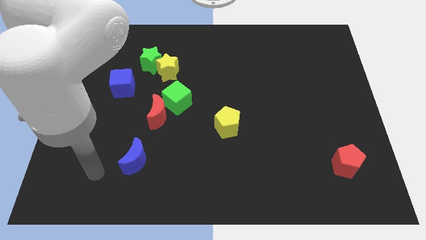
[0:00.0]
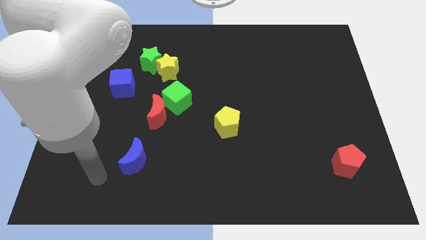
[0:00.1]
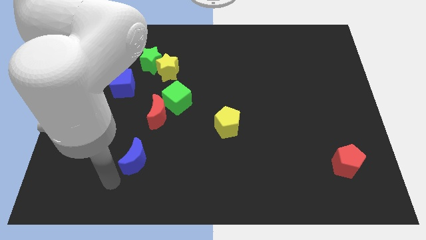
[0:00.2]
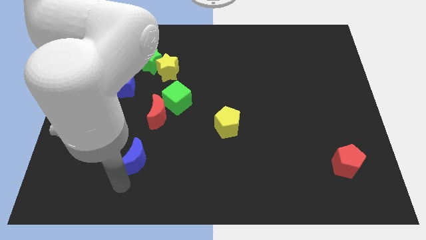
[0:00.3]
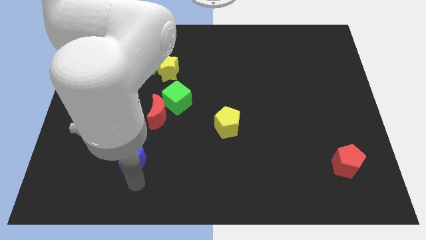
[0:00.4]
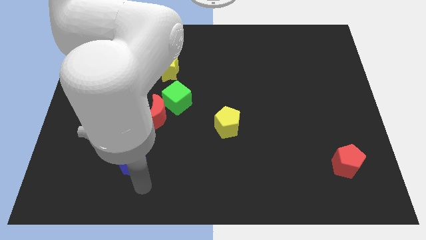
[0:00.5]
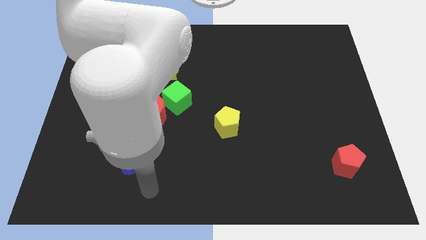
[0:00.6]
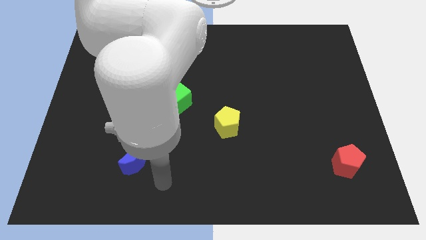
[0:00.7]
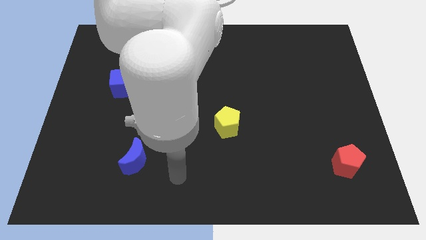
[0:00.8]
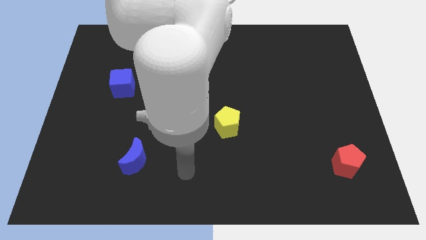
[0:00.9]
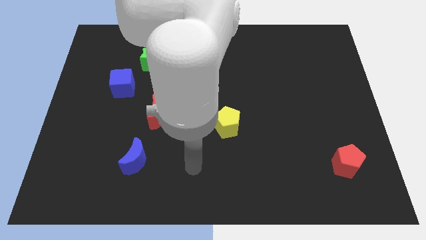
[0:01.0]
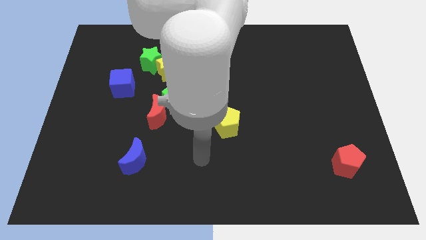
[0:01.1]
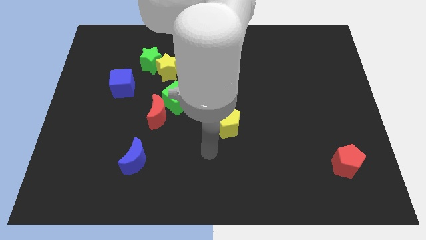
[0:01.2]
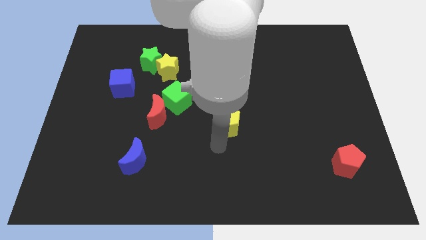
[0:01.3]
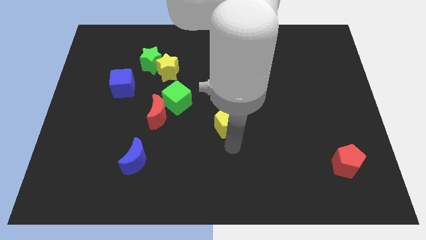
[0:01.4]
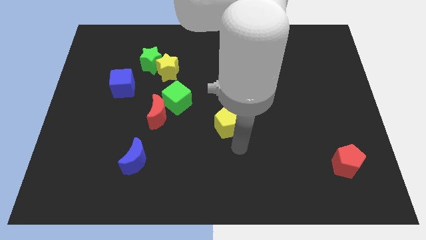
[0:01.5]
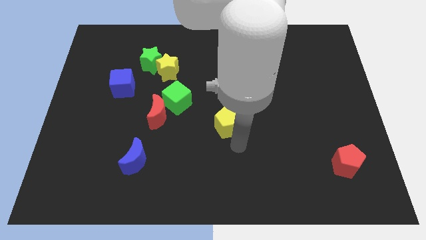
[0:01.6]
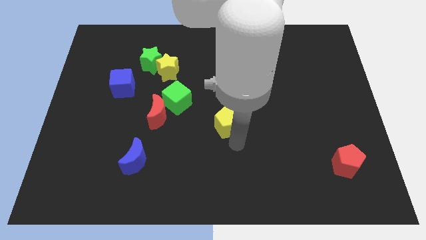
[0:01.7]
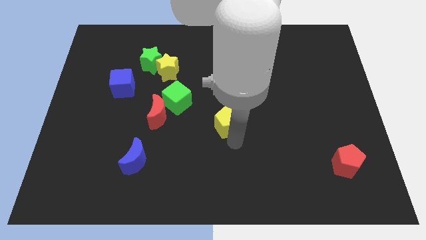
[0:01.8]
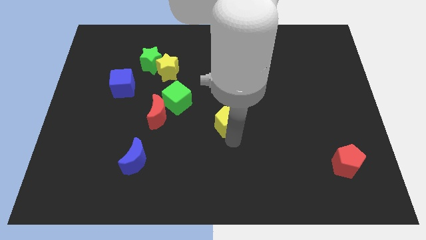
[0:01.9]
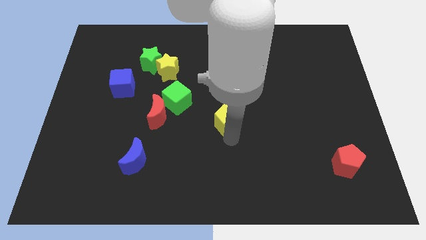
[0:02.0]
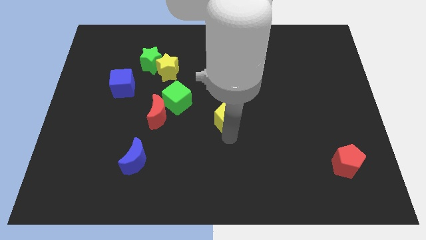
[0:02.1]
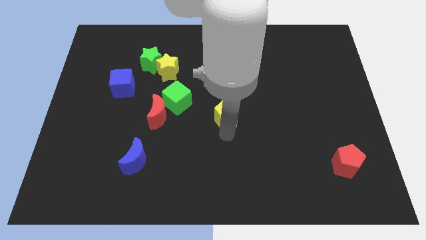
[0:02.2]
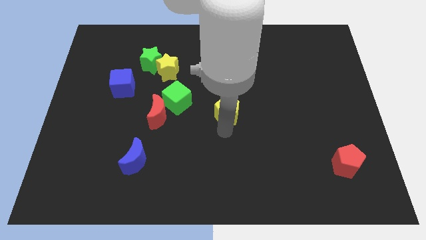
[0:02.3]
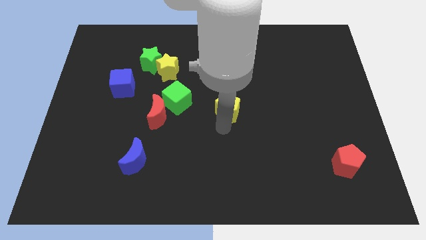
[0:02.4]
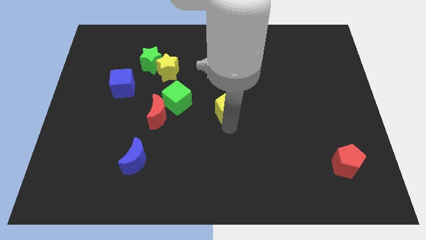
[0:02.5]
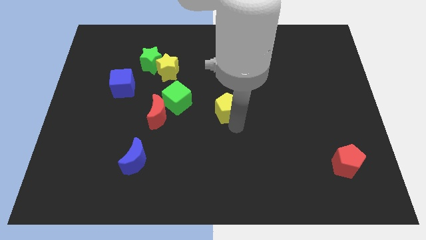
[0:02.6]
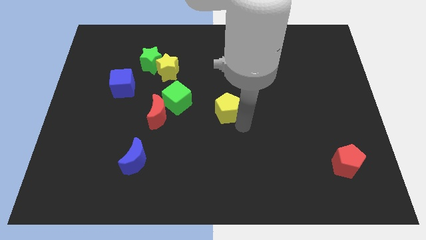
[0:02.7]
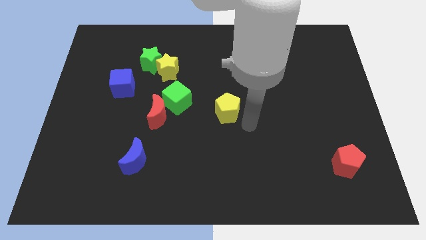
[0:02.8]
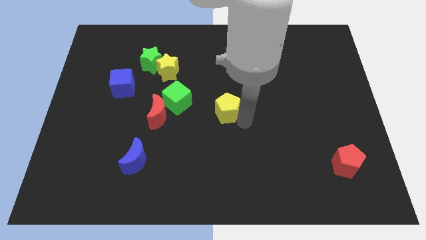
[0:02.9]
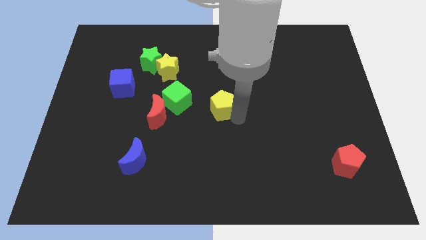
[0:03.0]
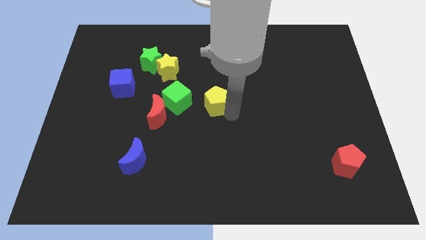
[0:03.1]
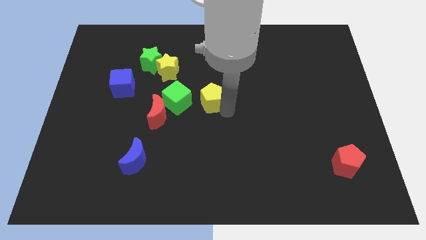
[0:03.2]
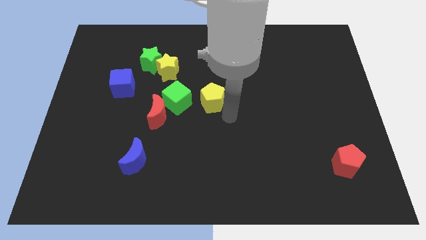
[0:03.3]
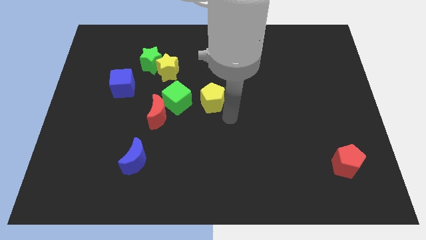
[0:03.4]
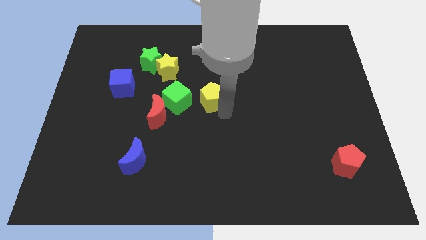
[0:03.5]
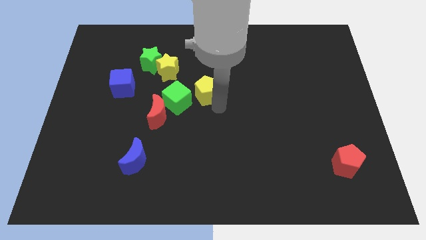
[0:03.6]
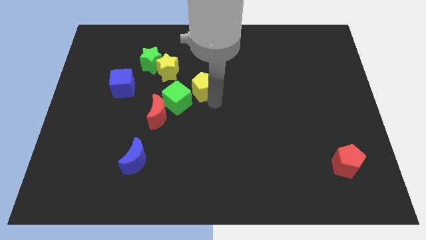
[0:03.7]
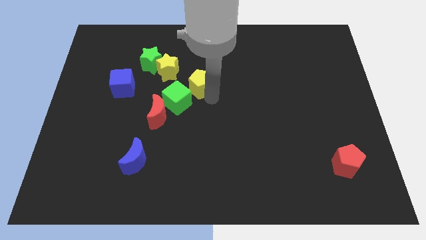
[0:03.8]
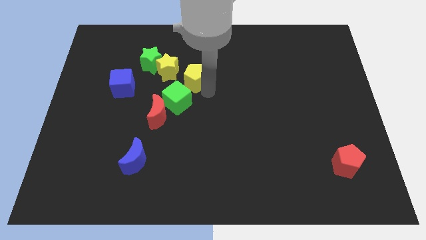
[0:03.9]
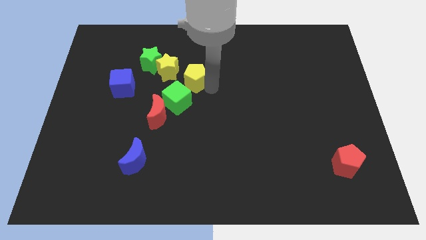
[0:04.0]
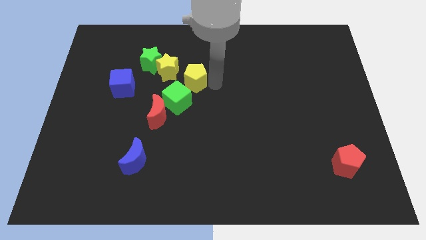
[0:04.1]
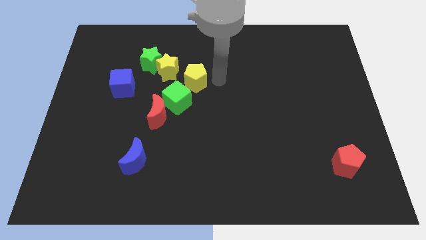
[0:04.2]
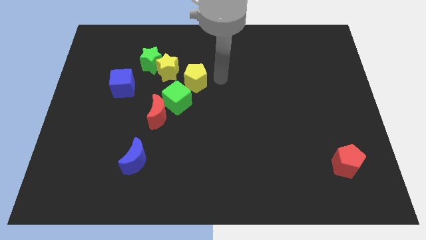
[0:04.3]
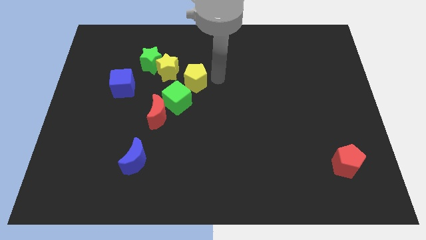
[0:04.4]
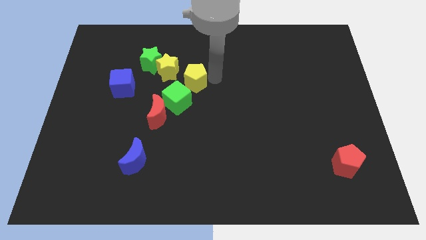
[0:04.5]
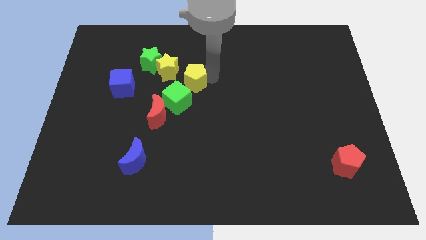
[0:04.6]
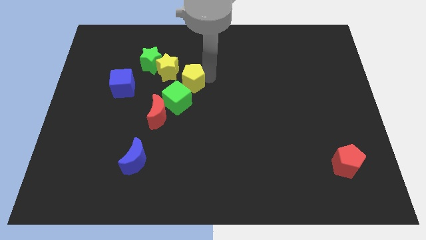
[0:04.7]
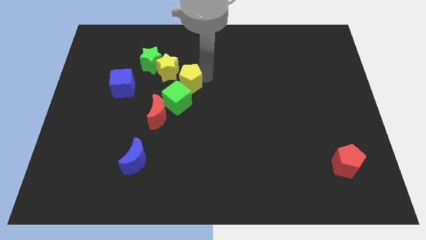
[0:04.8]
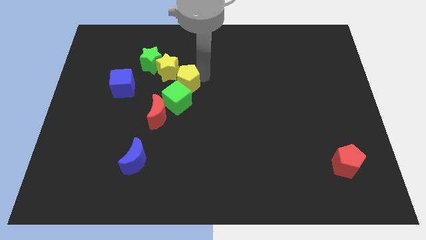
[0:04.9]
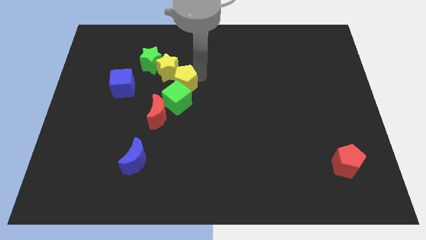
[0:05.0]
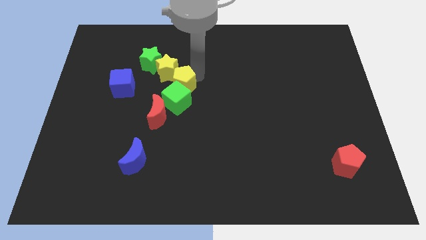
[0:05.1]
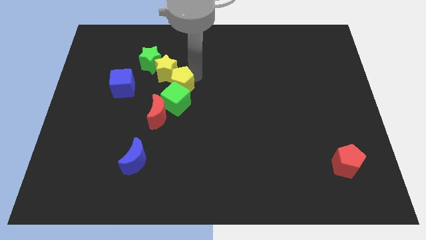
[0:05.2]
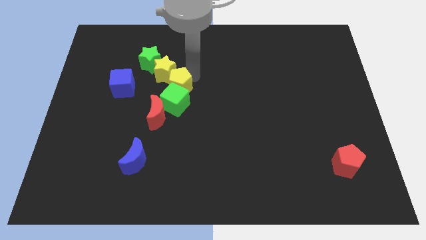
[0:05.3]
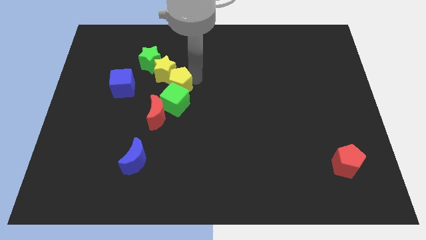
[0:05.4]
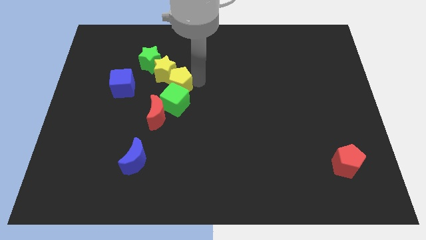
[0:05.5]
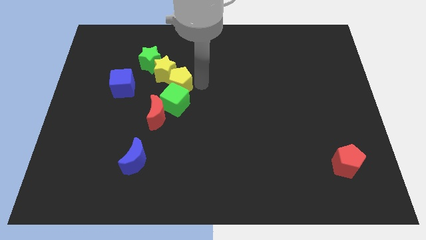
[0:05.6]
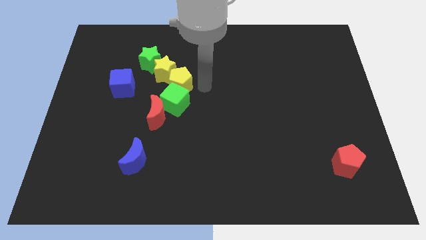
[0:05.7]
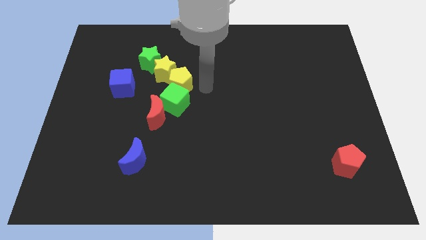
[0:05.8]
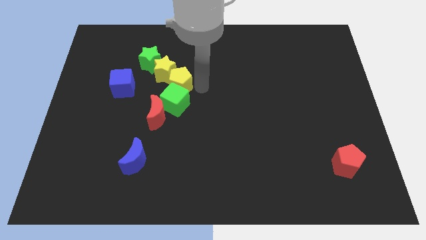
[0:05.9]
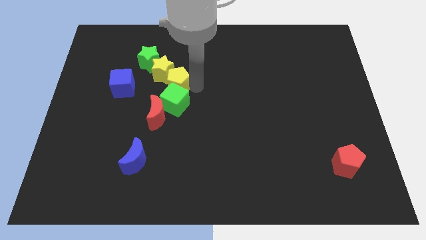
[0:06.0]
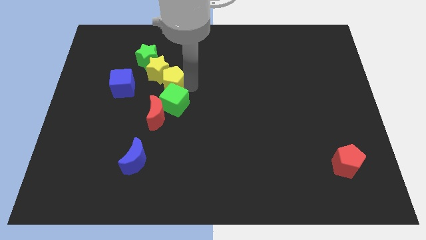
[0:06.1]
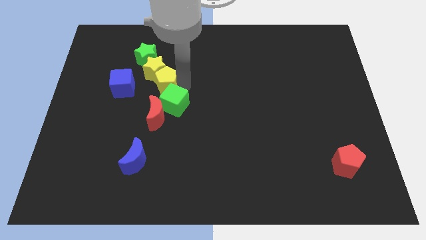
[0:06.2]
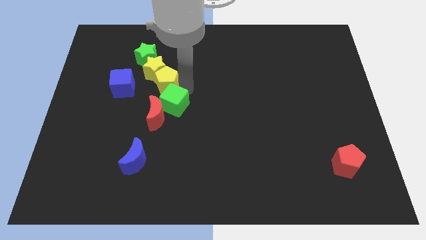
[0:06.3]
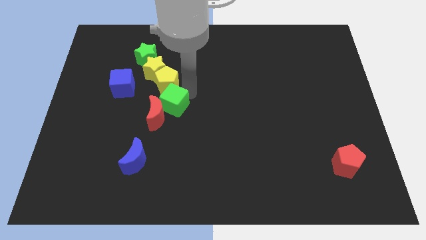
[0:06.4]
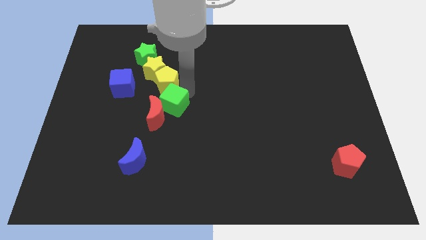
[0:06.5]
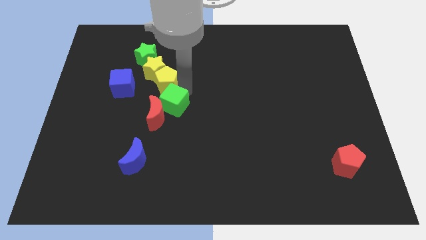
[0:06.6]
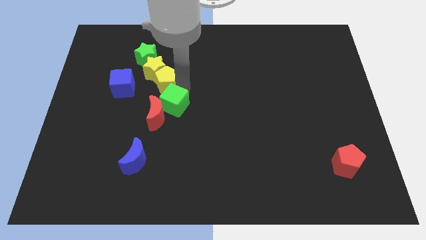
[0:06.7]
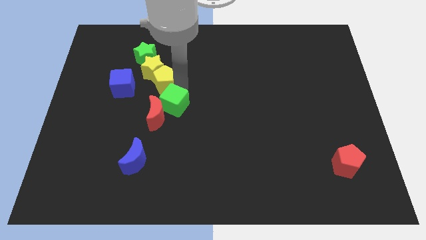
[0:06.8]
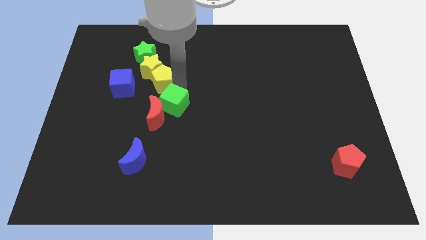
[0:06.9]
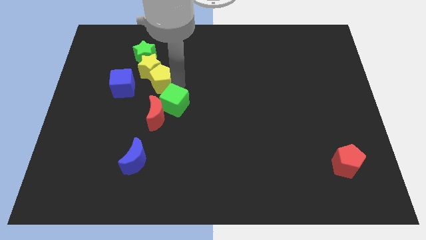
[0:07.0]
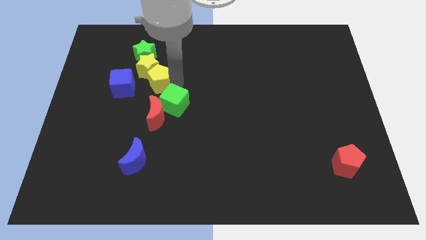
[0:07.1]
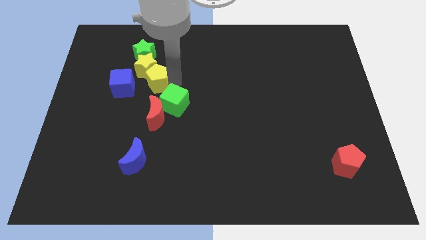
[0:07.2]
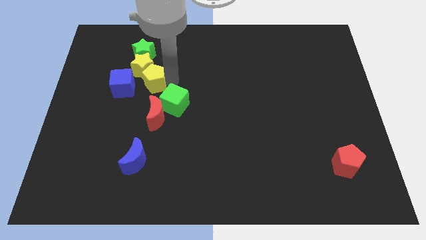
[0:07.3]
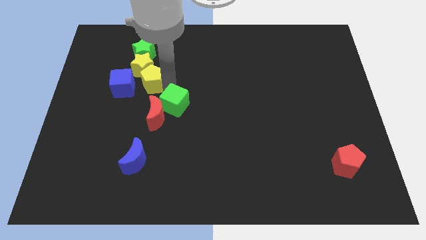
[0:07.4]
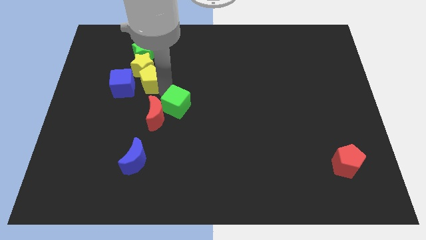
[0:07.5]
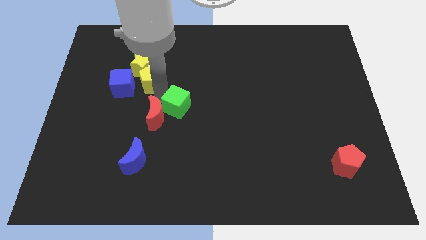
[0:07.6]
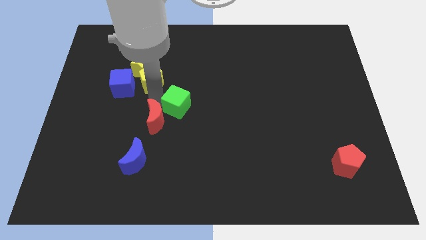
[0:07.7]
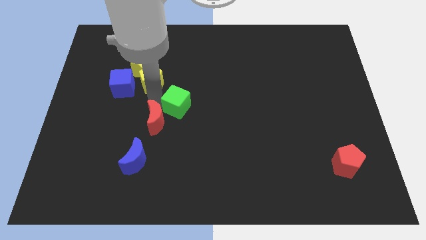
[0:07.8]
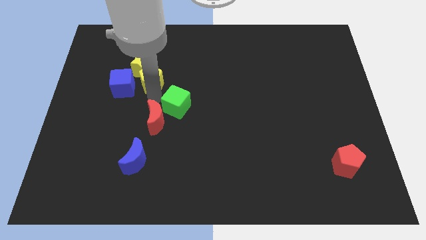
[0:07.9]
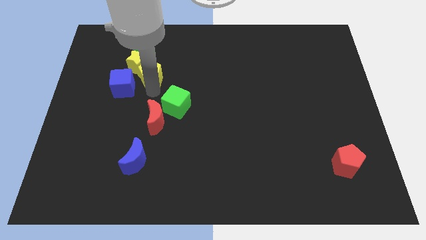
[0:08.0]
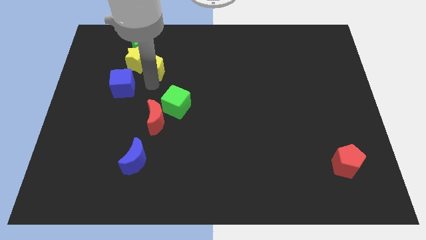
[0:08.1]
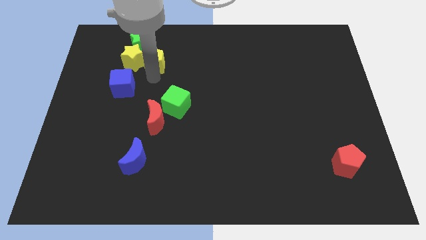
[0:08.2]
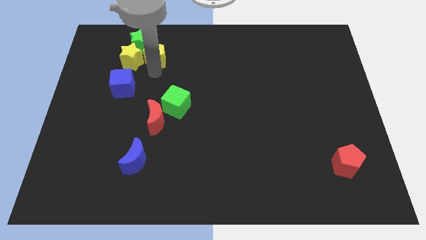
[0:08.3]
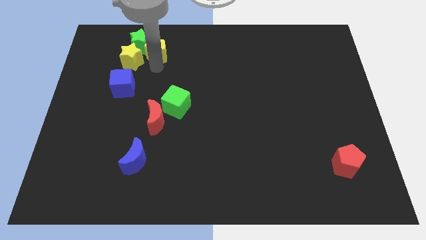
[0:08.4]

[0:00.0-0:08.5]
put the yellow pentagon close to the green star

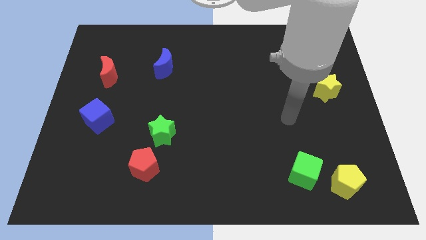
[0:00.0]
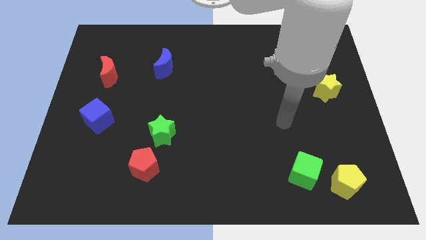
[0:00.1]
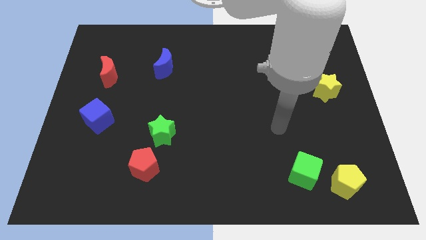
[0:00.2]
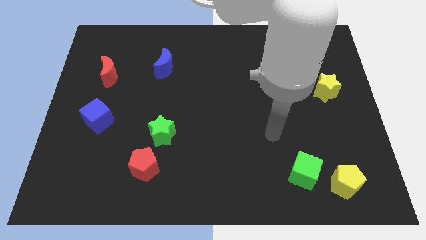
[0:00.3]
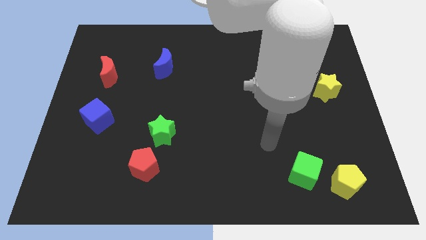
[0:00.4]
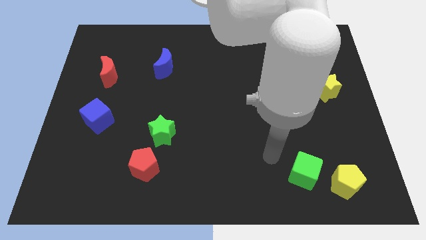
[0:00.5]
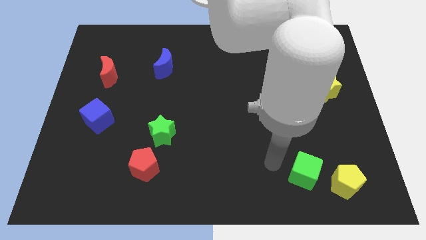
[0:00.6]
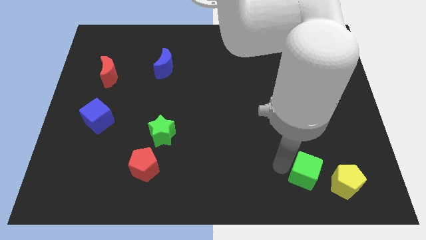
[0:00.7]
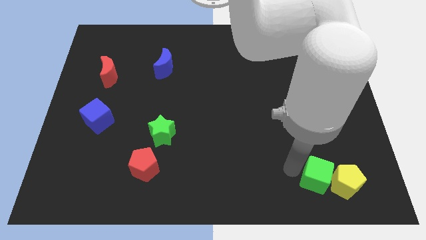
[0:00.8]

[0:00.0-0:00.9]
move the green cube towards the yellow pentagon
